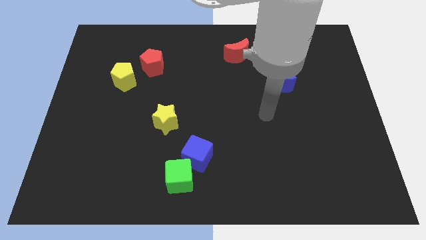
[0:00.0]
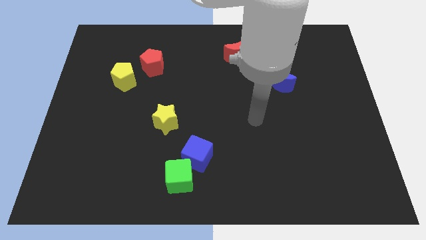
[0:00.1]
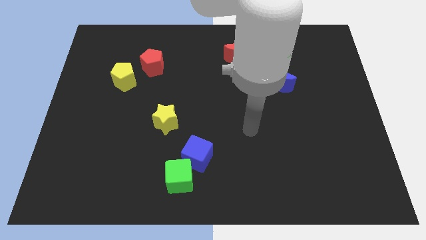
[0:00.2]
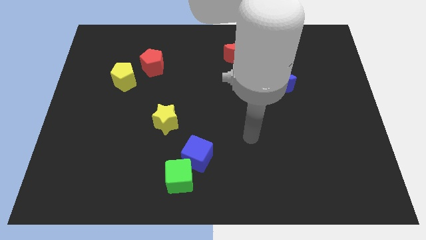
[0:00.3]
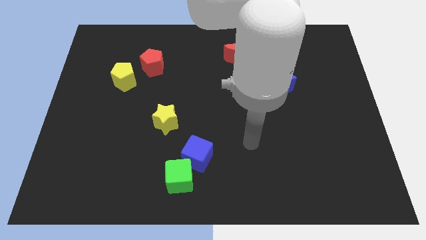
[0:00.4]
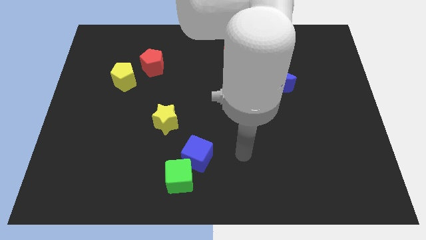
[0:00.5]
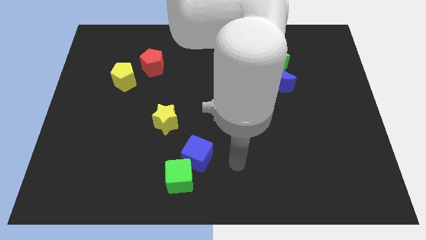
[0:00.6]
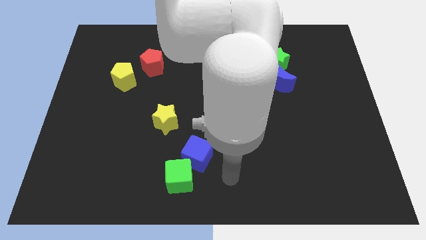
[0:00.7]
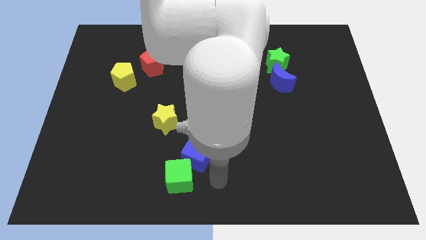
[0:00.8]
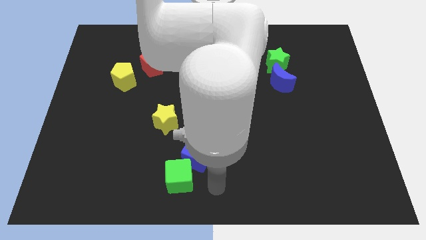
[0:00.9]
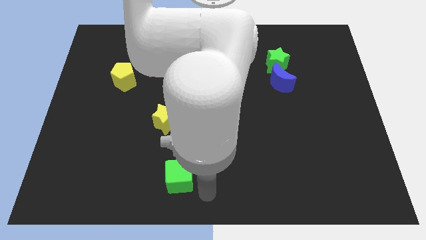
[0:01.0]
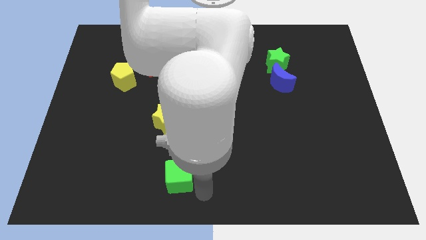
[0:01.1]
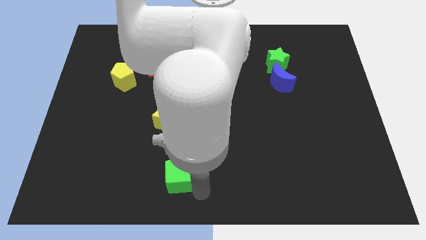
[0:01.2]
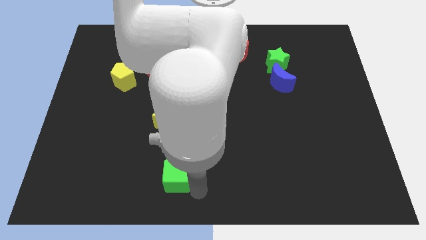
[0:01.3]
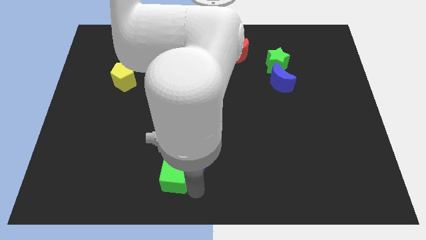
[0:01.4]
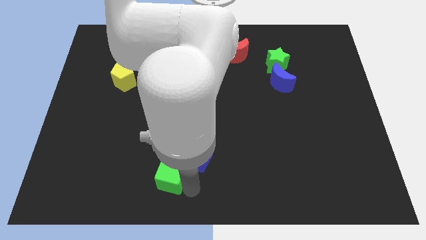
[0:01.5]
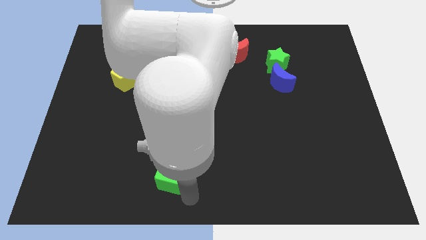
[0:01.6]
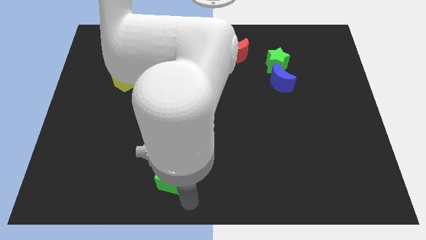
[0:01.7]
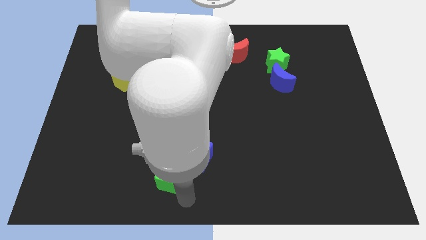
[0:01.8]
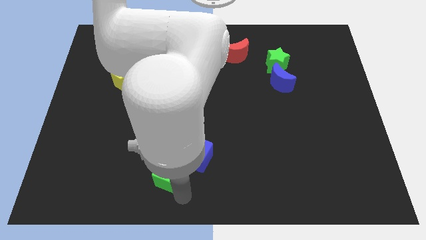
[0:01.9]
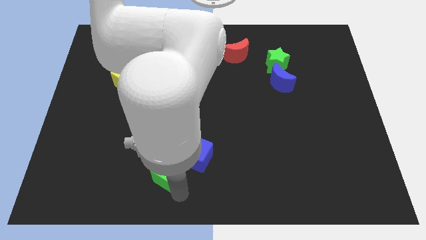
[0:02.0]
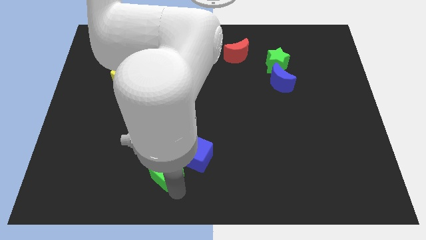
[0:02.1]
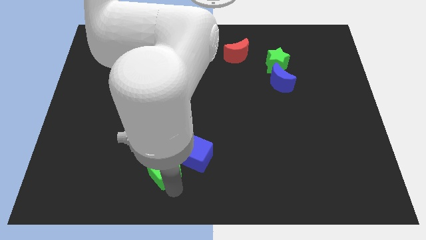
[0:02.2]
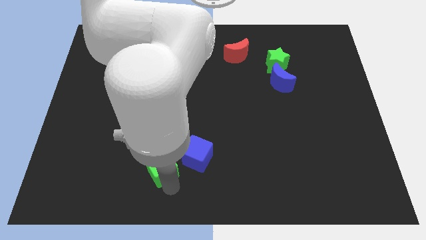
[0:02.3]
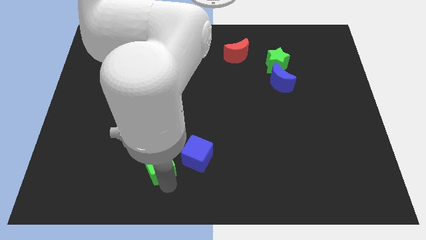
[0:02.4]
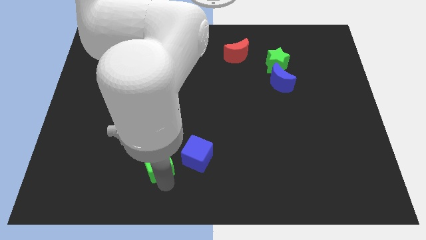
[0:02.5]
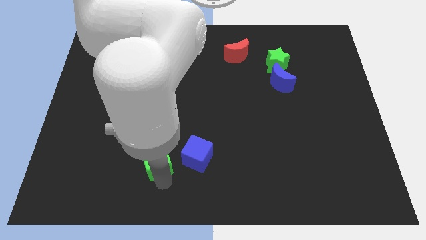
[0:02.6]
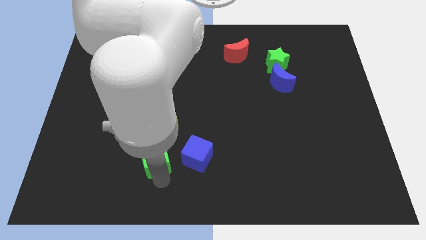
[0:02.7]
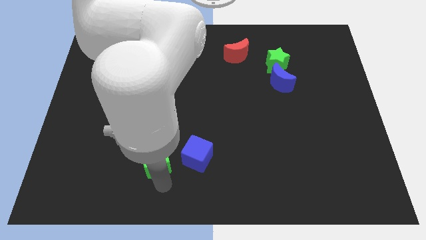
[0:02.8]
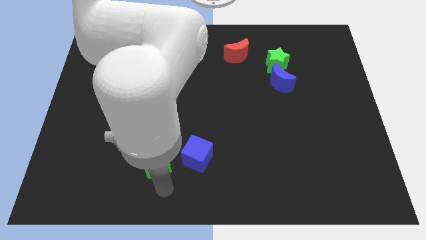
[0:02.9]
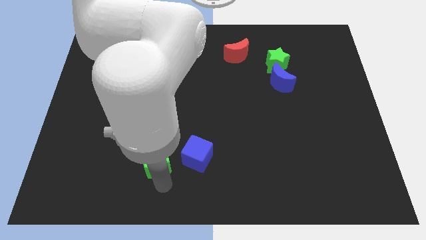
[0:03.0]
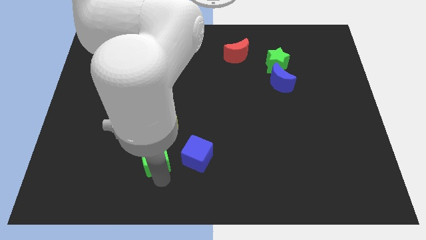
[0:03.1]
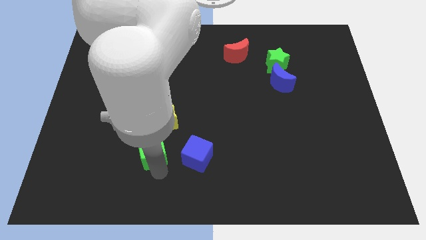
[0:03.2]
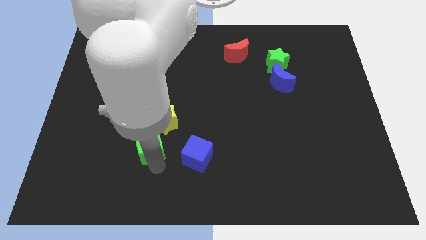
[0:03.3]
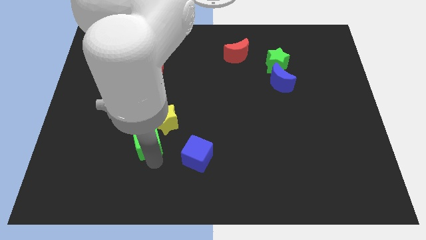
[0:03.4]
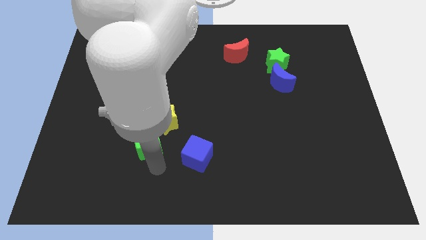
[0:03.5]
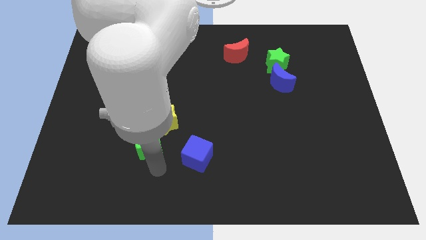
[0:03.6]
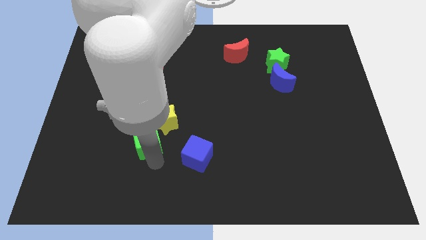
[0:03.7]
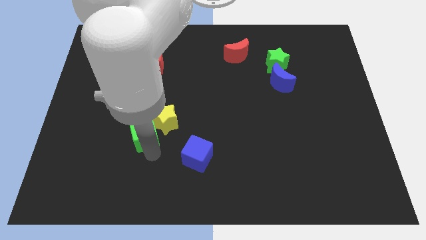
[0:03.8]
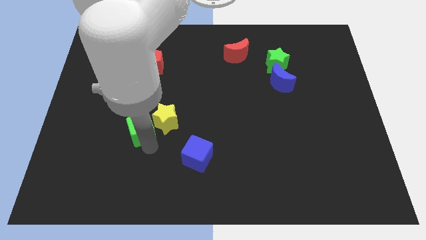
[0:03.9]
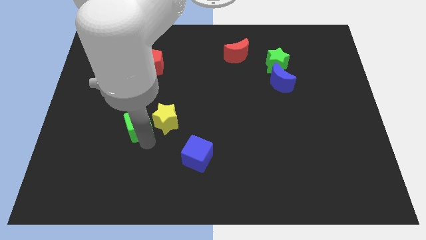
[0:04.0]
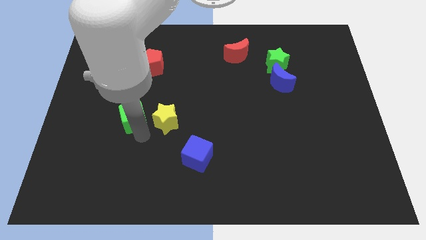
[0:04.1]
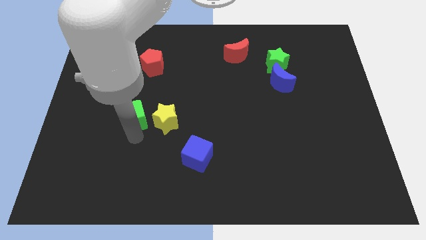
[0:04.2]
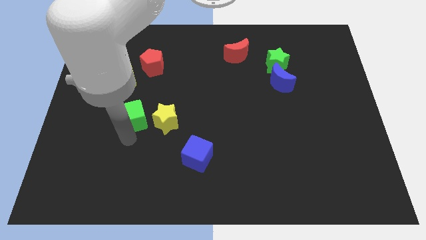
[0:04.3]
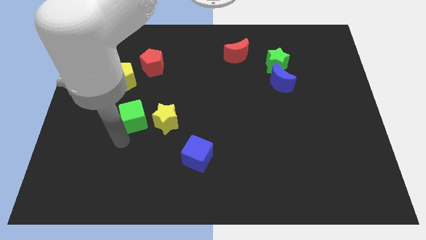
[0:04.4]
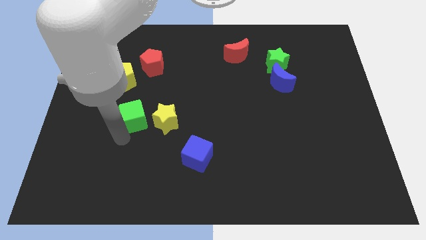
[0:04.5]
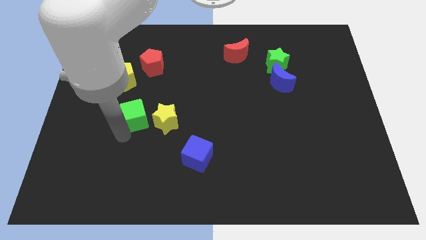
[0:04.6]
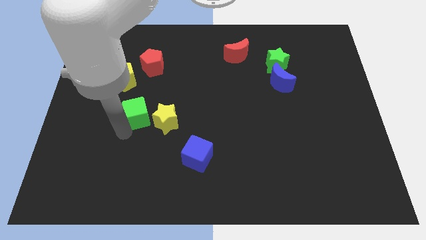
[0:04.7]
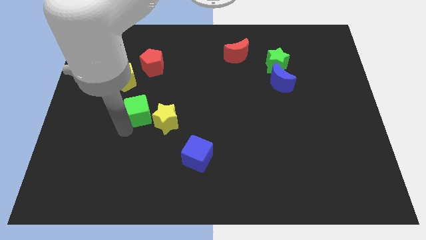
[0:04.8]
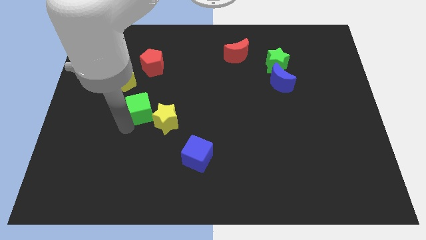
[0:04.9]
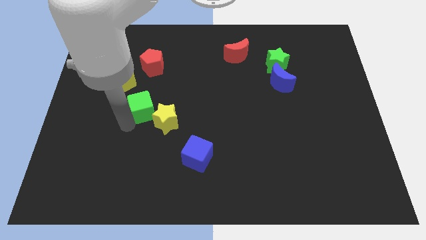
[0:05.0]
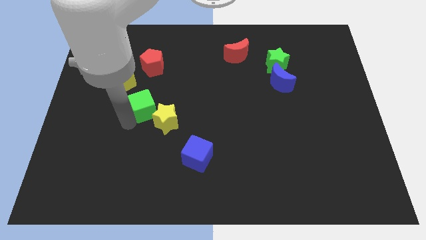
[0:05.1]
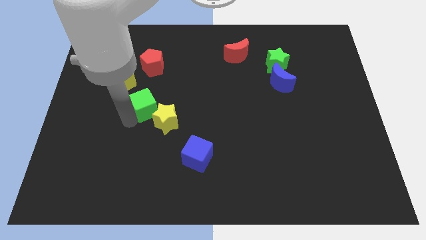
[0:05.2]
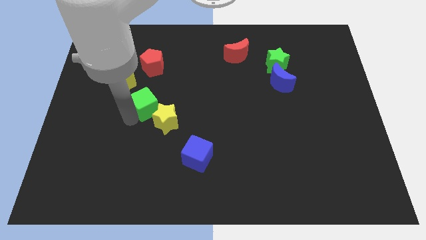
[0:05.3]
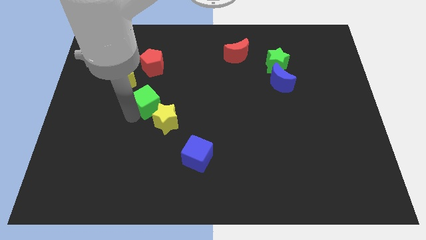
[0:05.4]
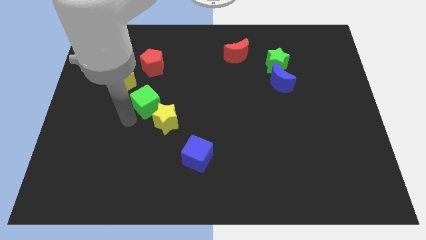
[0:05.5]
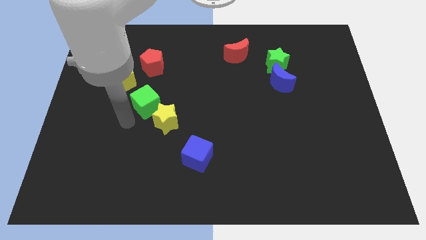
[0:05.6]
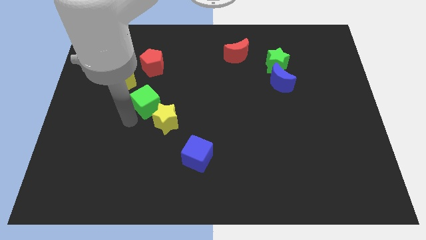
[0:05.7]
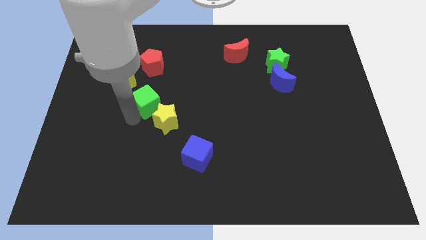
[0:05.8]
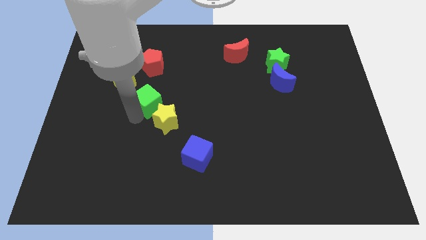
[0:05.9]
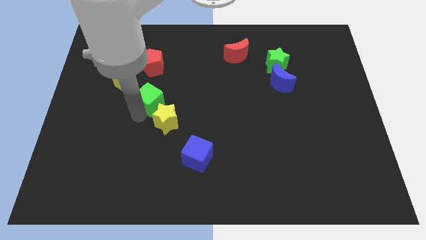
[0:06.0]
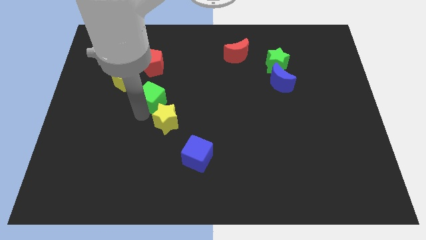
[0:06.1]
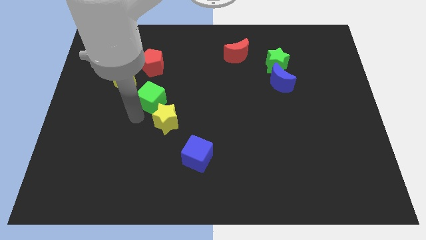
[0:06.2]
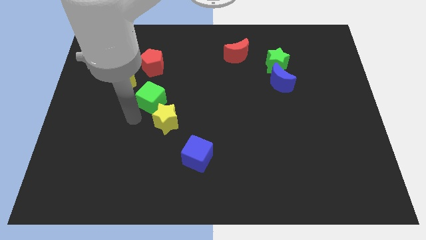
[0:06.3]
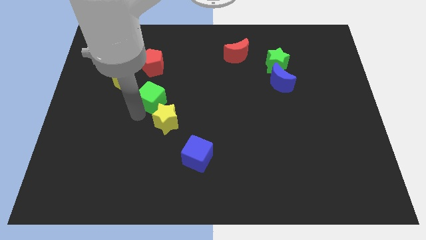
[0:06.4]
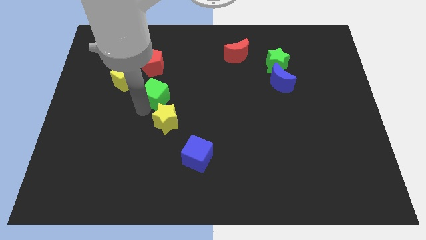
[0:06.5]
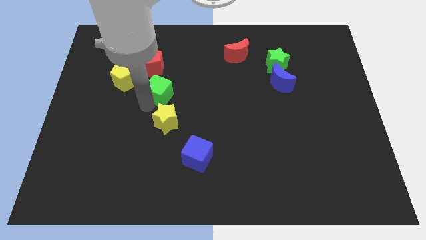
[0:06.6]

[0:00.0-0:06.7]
move the green cube up

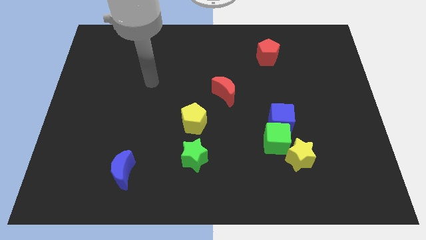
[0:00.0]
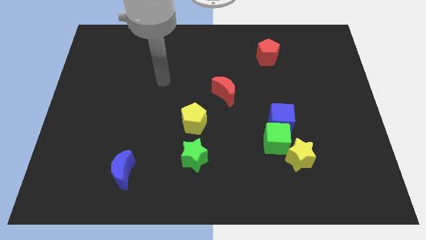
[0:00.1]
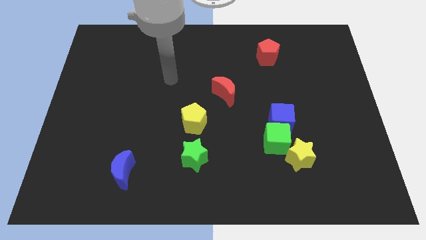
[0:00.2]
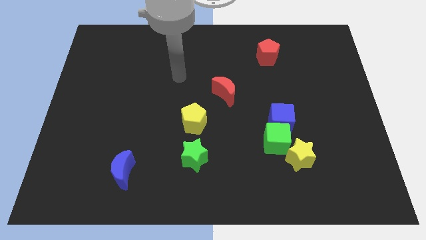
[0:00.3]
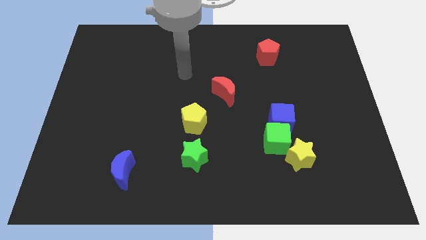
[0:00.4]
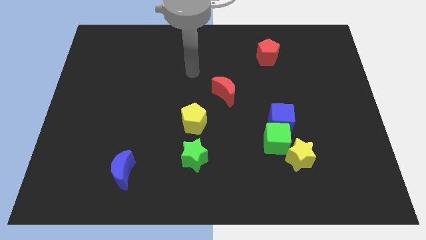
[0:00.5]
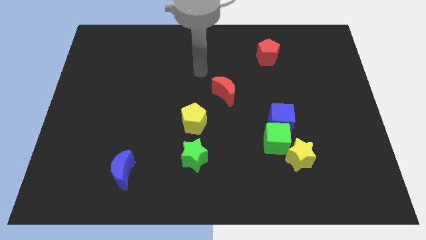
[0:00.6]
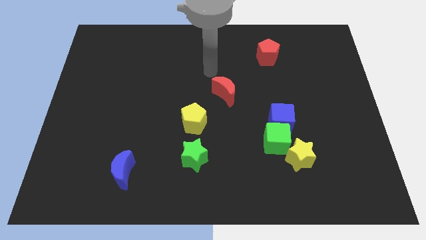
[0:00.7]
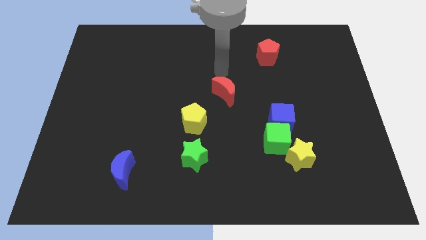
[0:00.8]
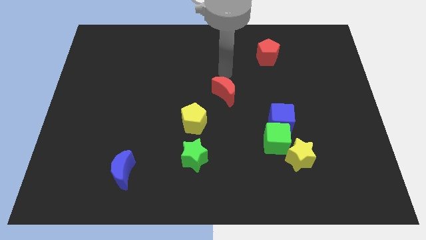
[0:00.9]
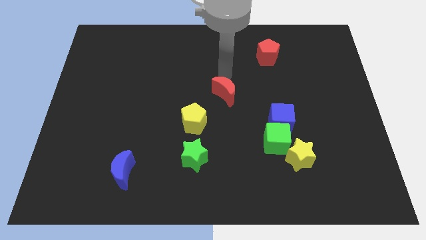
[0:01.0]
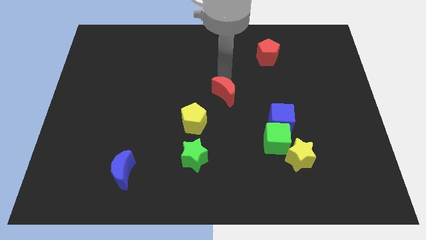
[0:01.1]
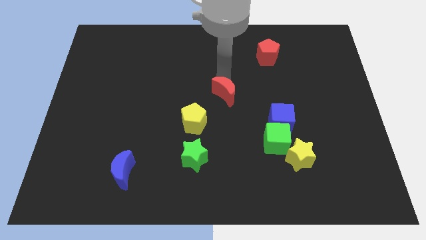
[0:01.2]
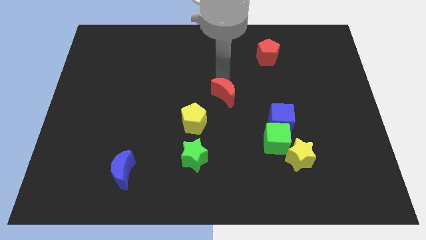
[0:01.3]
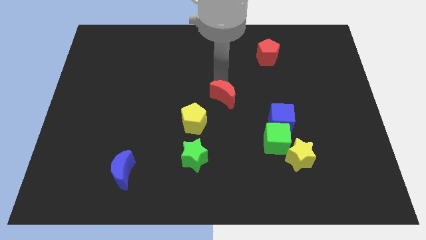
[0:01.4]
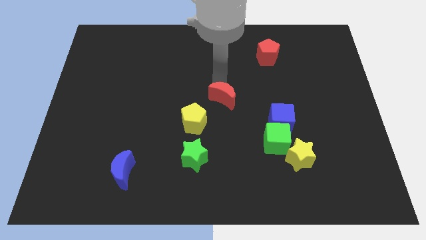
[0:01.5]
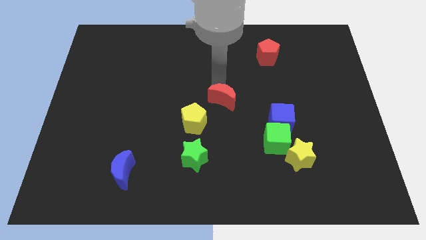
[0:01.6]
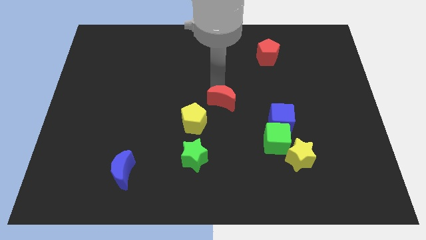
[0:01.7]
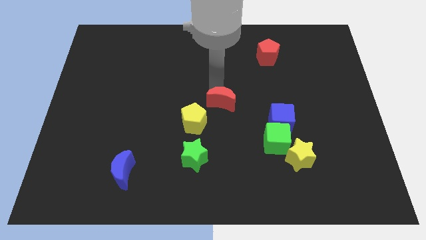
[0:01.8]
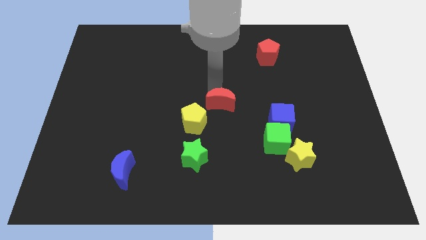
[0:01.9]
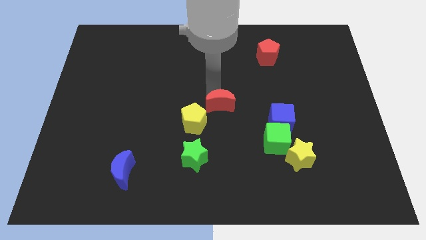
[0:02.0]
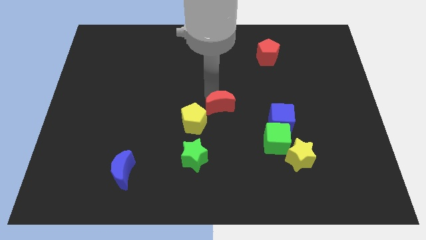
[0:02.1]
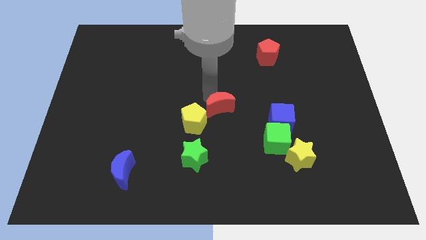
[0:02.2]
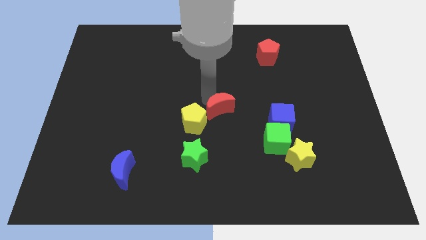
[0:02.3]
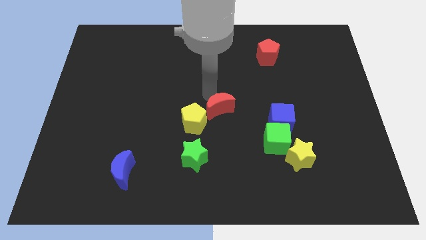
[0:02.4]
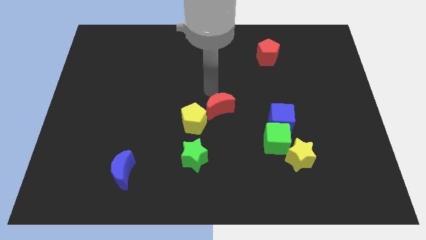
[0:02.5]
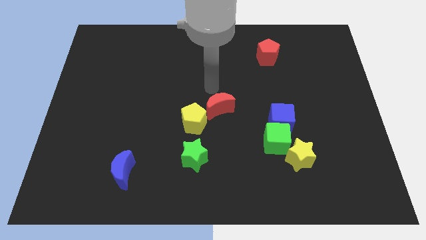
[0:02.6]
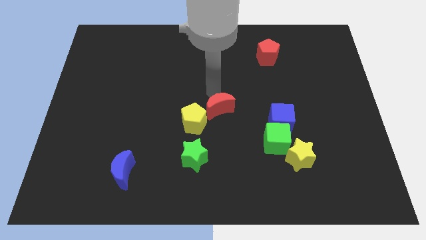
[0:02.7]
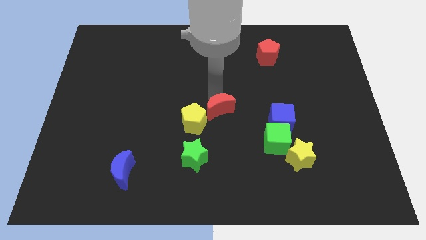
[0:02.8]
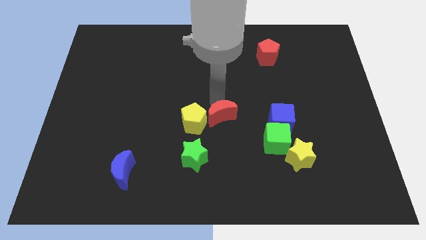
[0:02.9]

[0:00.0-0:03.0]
slide the red moon a bit down
